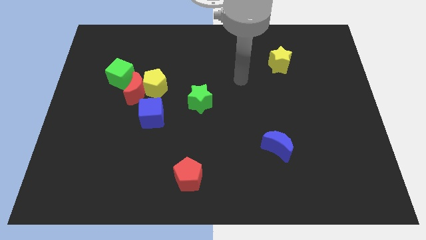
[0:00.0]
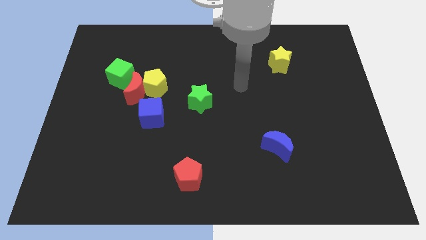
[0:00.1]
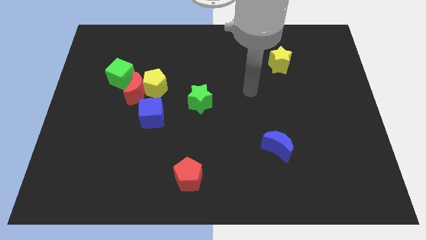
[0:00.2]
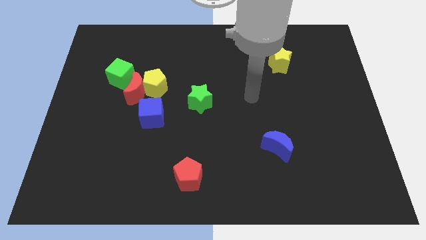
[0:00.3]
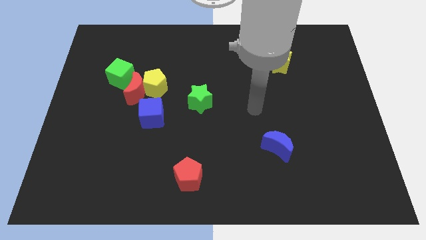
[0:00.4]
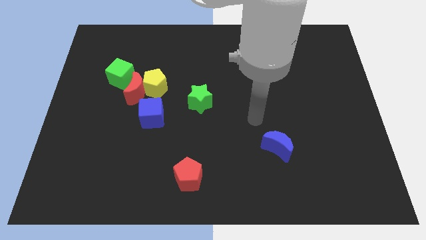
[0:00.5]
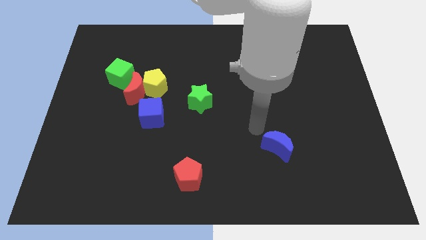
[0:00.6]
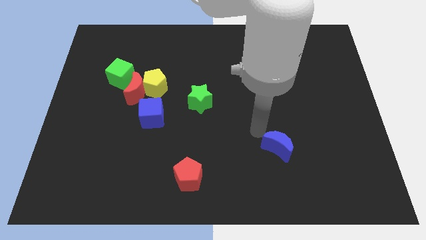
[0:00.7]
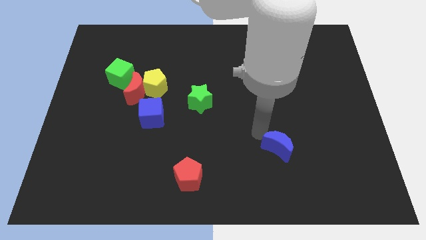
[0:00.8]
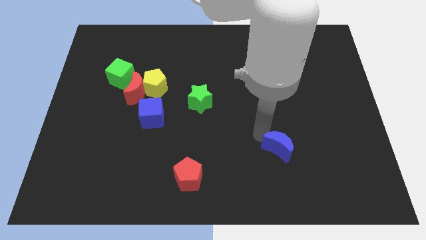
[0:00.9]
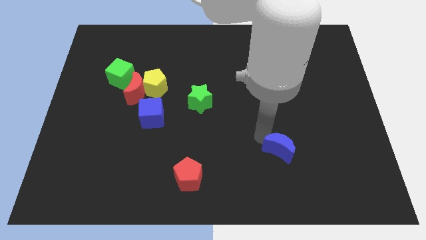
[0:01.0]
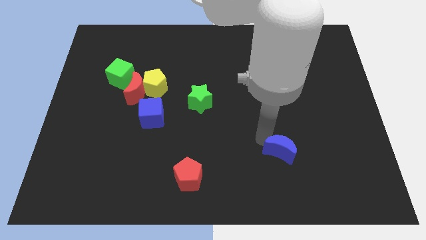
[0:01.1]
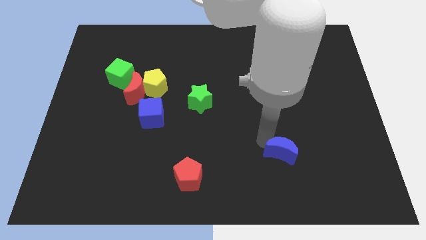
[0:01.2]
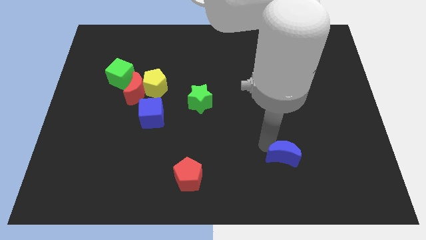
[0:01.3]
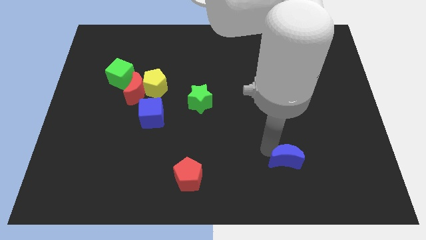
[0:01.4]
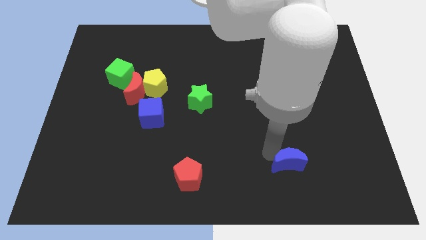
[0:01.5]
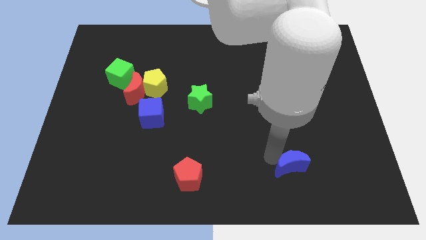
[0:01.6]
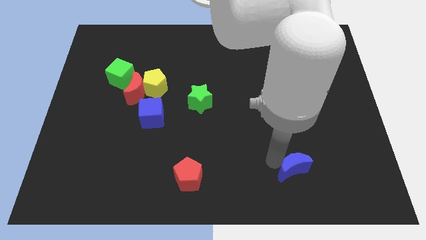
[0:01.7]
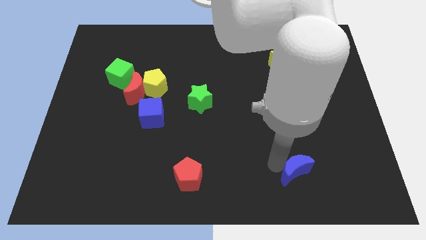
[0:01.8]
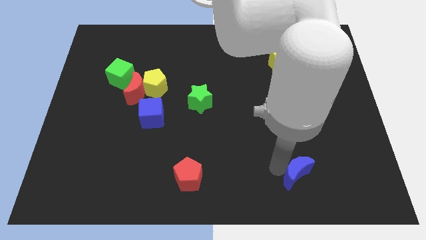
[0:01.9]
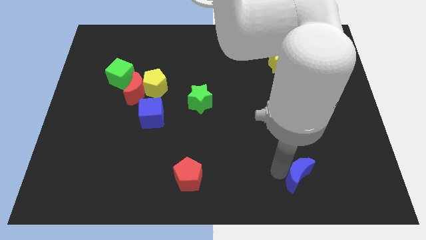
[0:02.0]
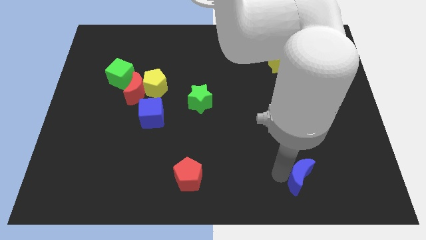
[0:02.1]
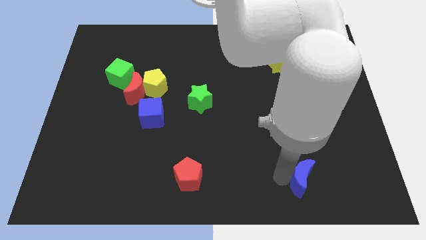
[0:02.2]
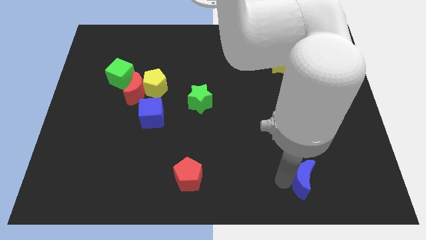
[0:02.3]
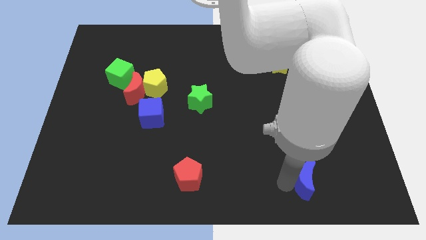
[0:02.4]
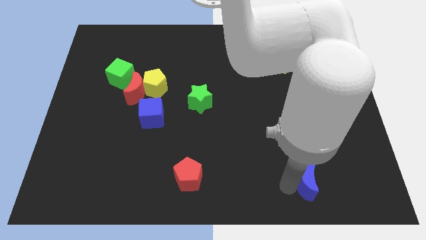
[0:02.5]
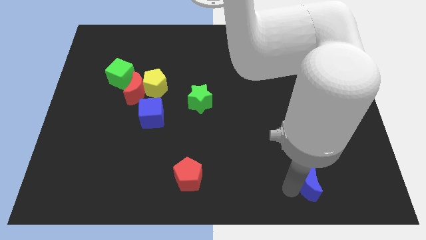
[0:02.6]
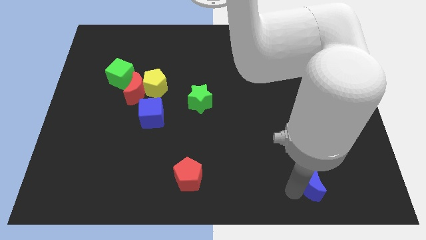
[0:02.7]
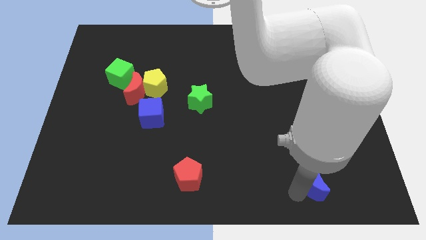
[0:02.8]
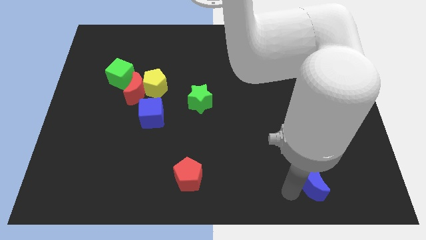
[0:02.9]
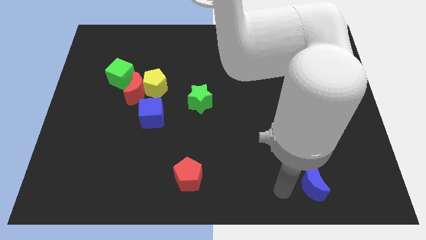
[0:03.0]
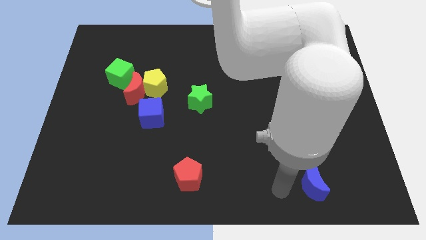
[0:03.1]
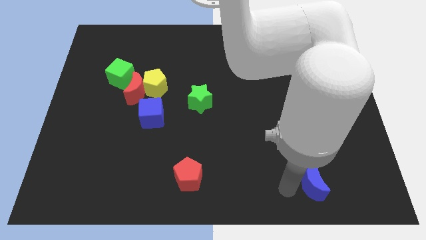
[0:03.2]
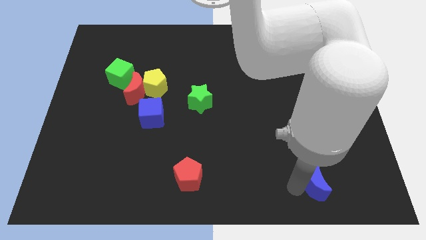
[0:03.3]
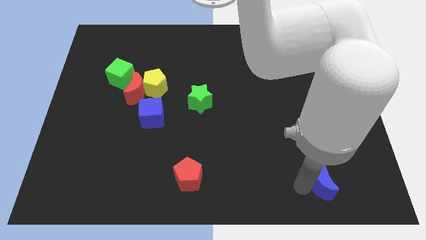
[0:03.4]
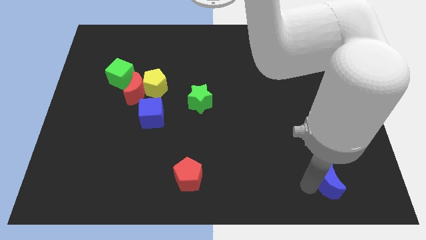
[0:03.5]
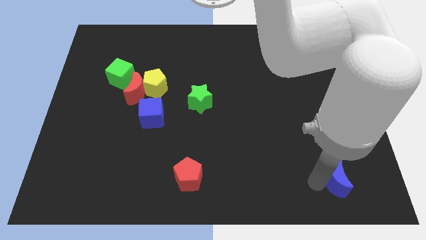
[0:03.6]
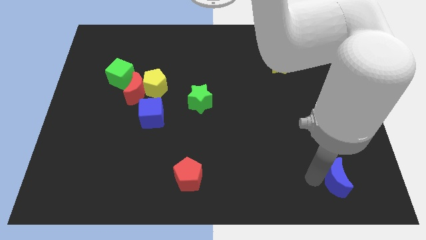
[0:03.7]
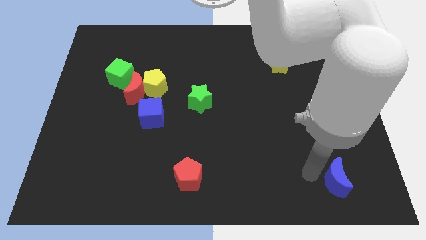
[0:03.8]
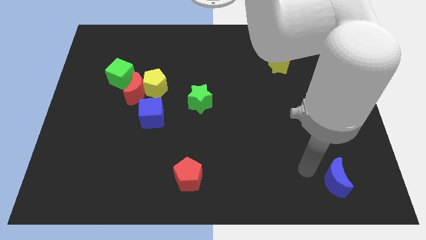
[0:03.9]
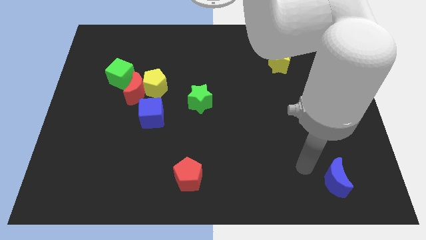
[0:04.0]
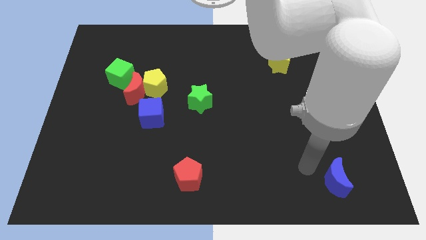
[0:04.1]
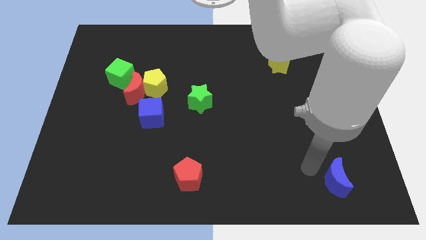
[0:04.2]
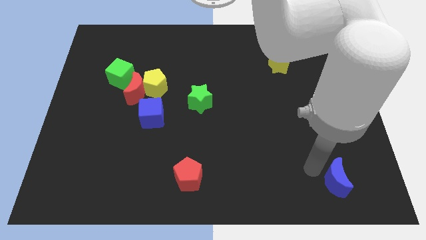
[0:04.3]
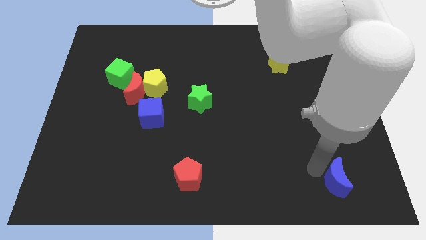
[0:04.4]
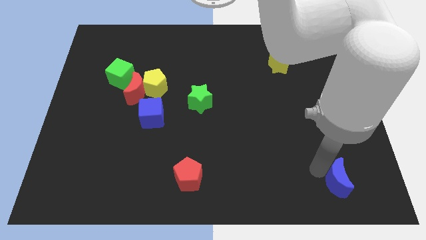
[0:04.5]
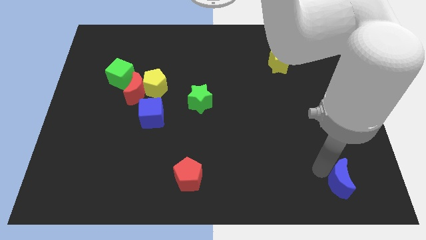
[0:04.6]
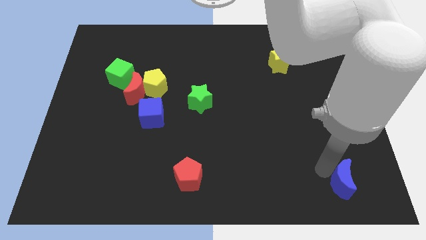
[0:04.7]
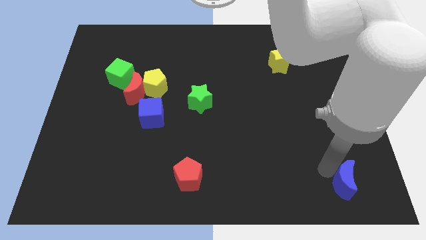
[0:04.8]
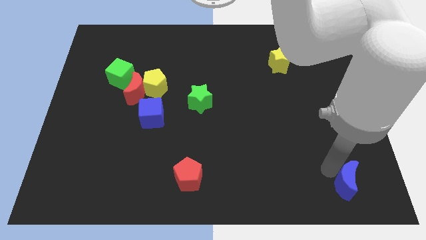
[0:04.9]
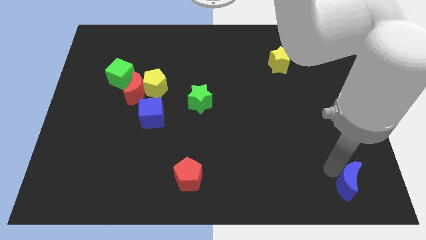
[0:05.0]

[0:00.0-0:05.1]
put the blue moon to the bottom right of the board

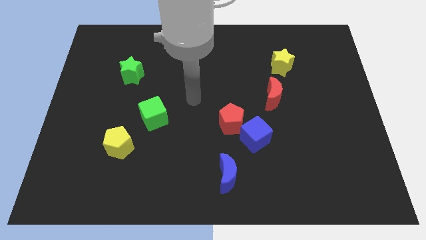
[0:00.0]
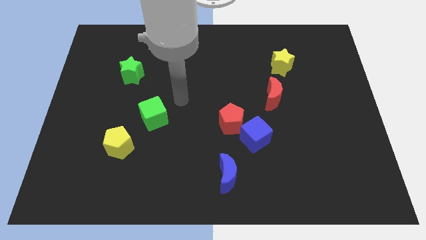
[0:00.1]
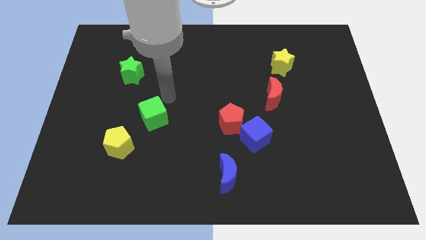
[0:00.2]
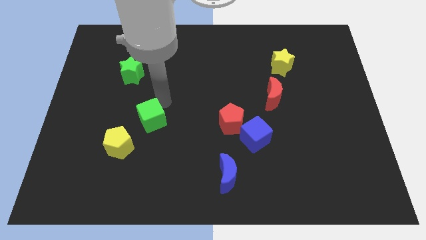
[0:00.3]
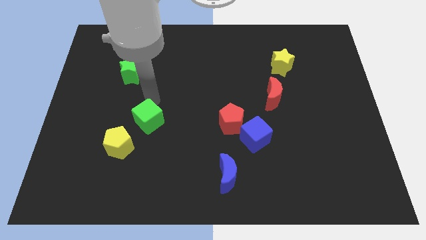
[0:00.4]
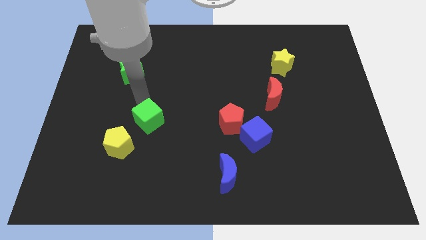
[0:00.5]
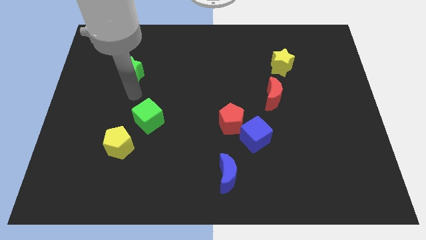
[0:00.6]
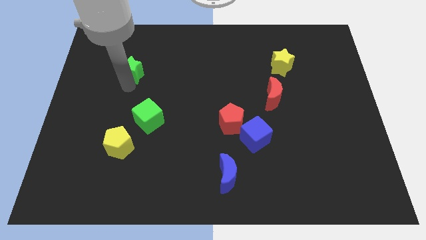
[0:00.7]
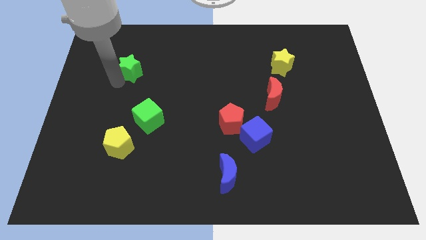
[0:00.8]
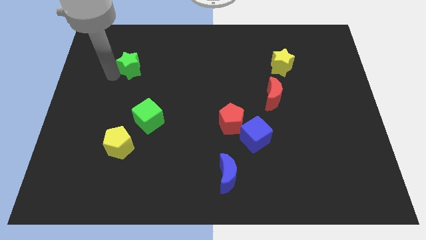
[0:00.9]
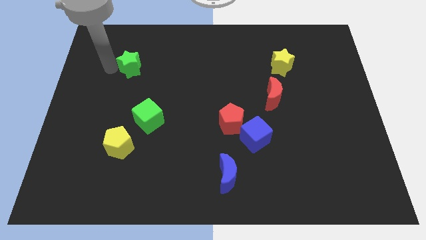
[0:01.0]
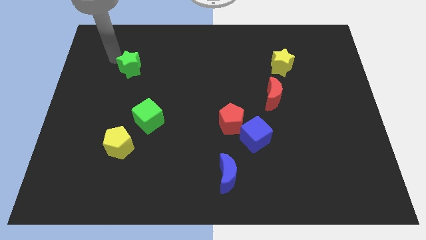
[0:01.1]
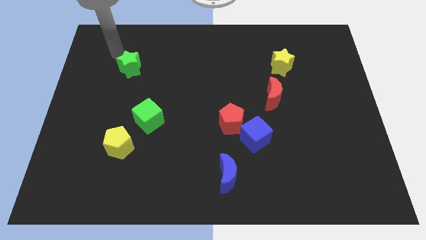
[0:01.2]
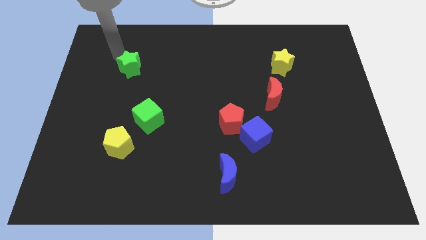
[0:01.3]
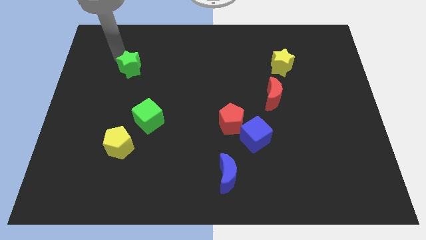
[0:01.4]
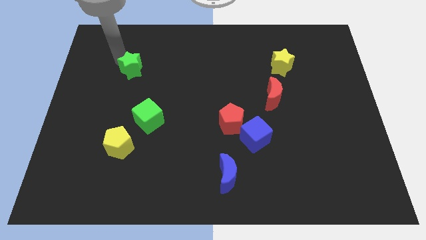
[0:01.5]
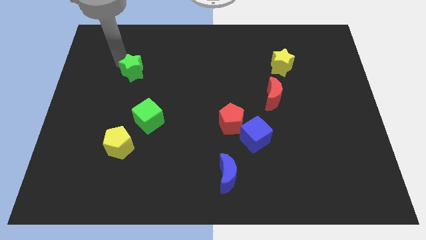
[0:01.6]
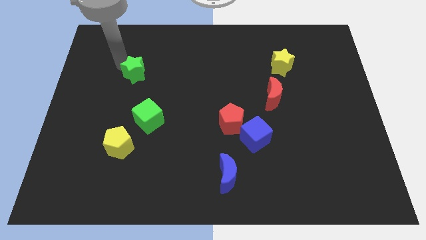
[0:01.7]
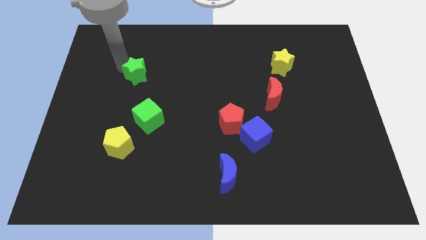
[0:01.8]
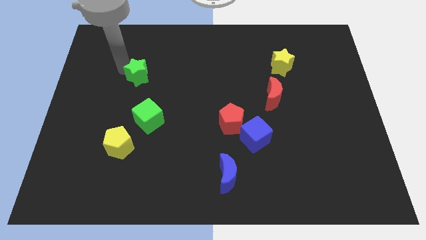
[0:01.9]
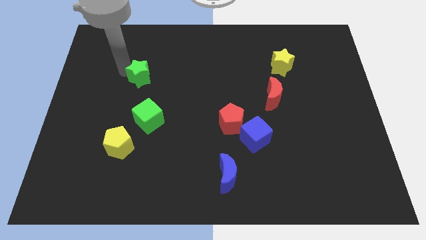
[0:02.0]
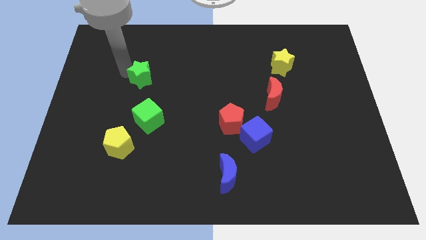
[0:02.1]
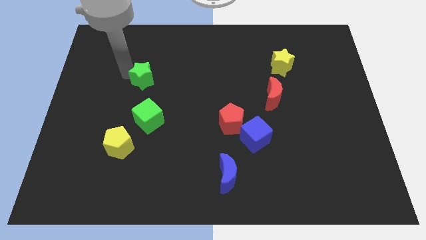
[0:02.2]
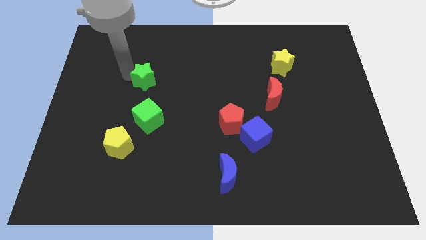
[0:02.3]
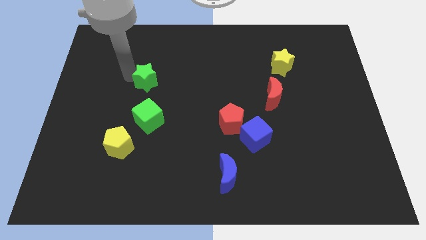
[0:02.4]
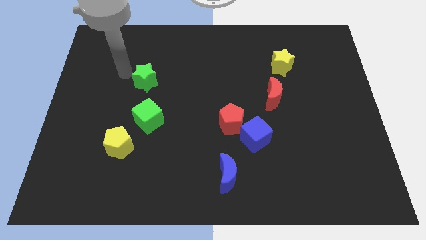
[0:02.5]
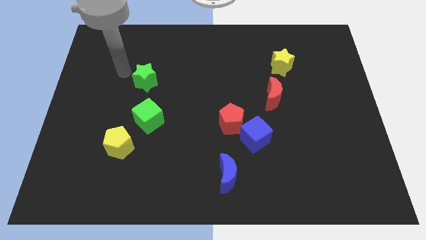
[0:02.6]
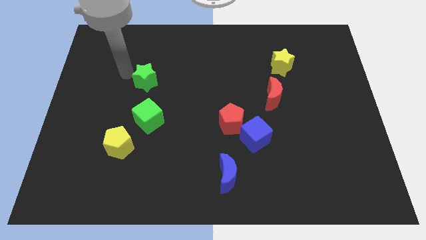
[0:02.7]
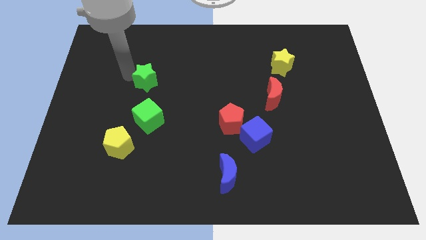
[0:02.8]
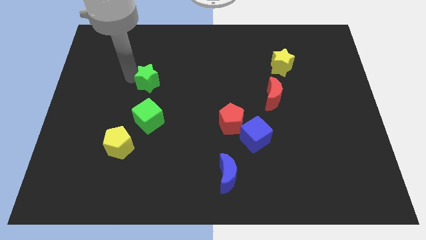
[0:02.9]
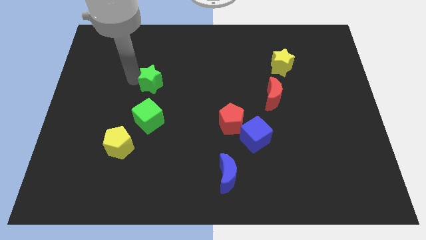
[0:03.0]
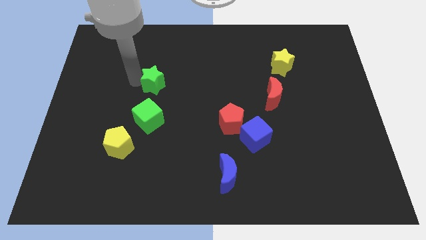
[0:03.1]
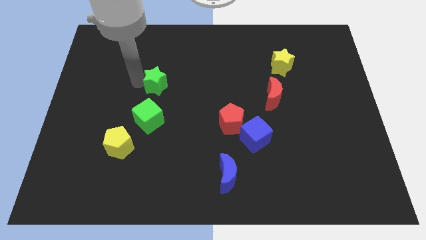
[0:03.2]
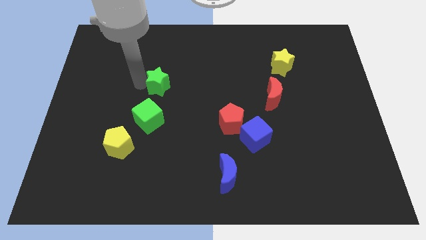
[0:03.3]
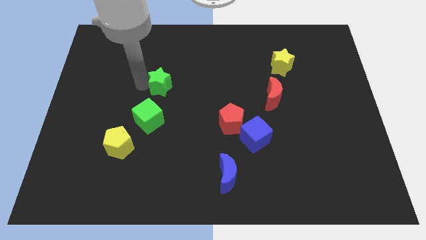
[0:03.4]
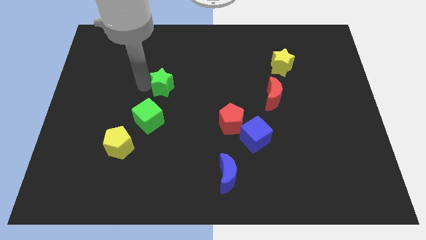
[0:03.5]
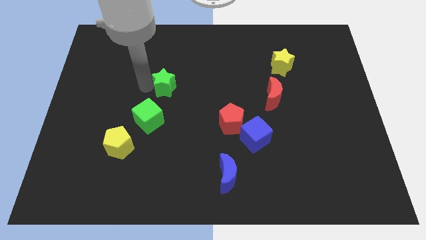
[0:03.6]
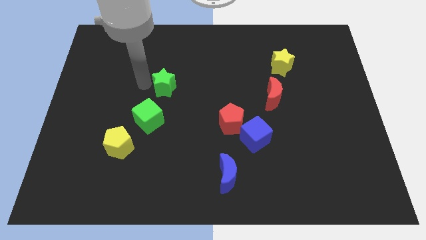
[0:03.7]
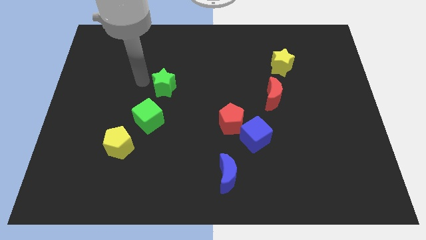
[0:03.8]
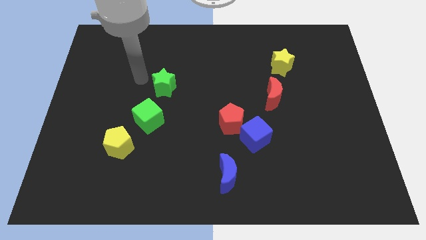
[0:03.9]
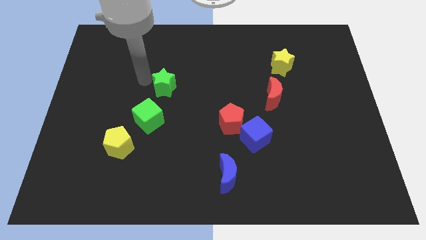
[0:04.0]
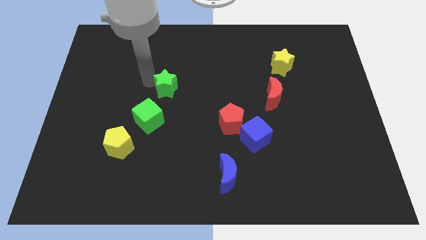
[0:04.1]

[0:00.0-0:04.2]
push the green star to the center
